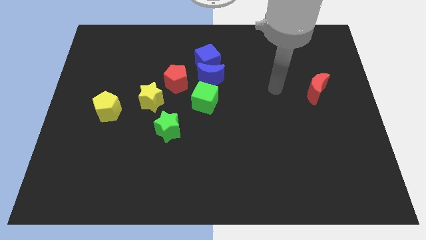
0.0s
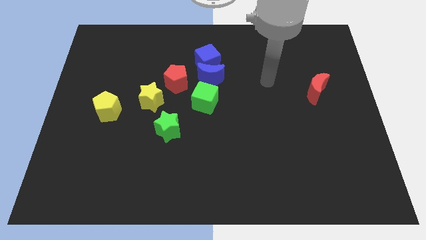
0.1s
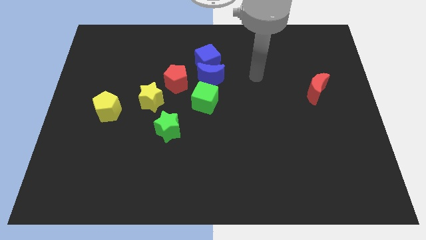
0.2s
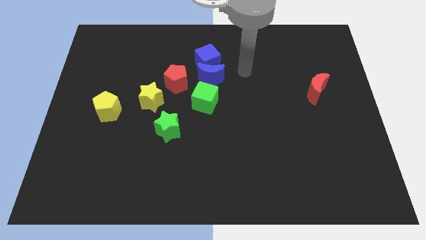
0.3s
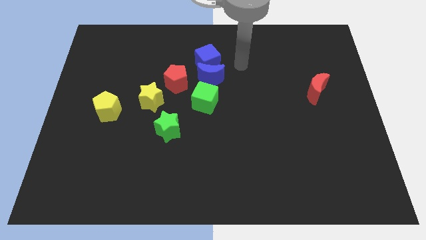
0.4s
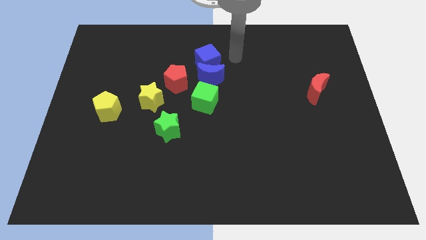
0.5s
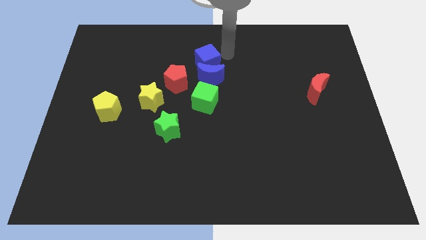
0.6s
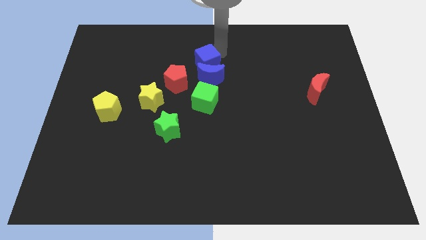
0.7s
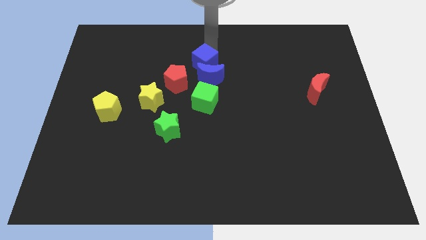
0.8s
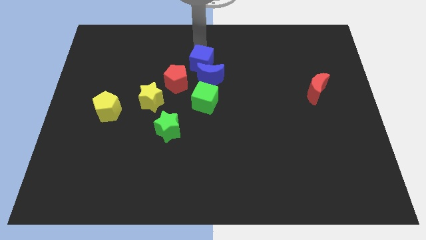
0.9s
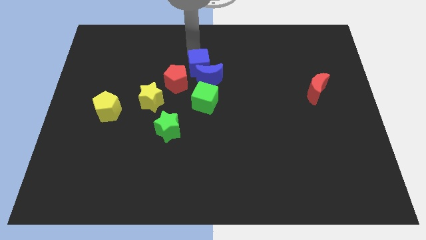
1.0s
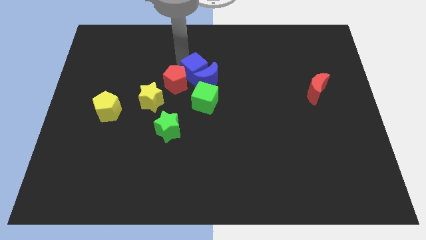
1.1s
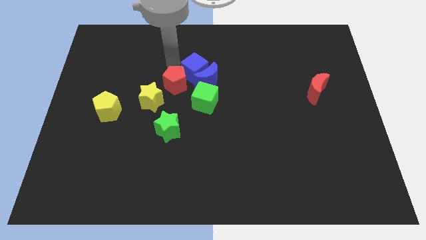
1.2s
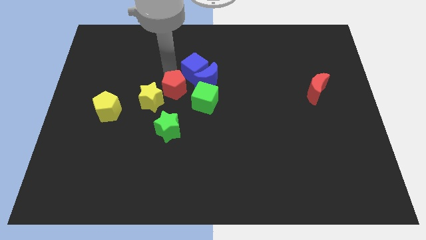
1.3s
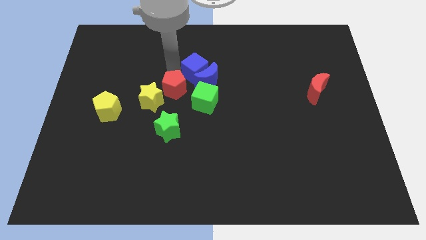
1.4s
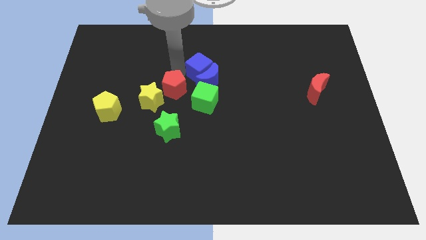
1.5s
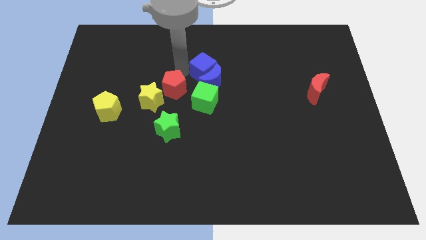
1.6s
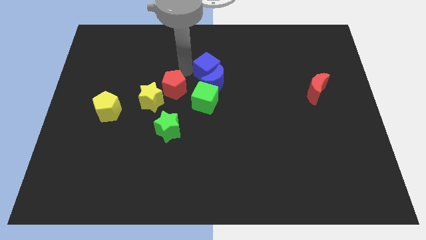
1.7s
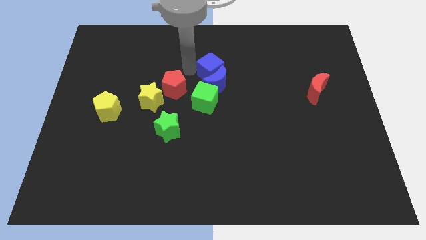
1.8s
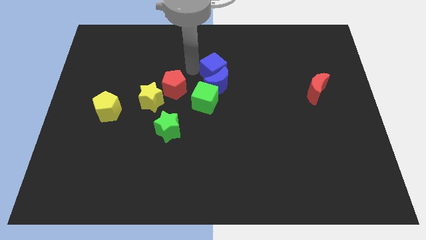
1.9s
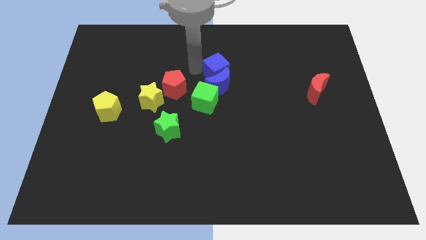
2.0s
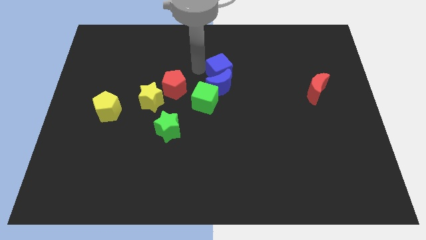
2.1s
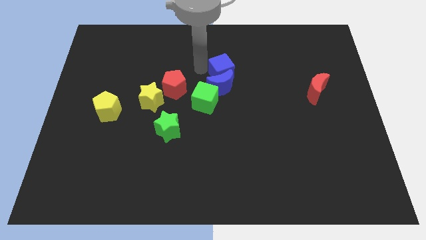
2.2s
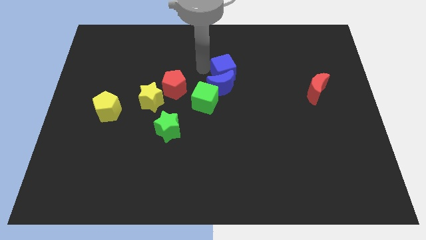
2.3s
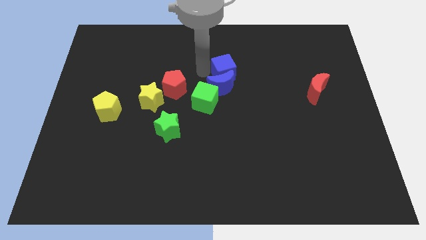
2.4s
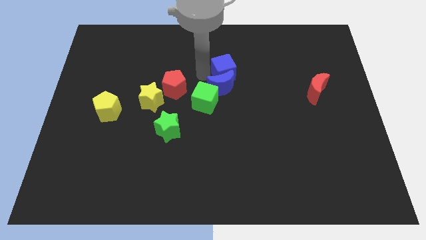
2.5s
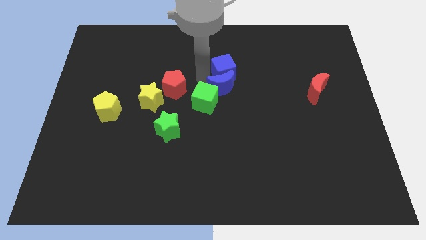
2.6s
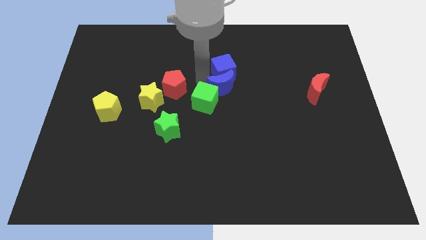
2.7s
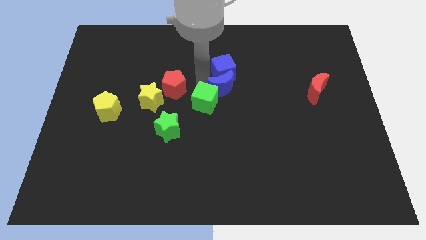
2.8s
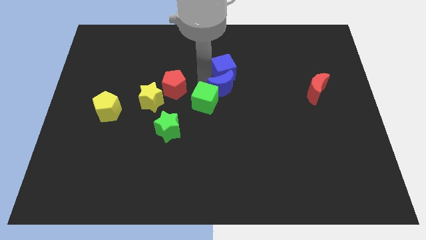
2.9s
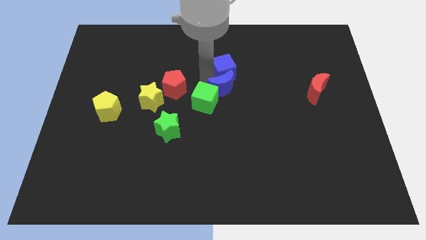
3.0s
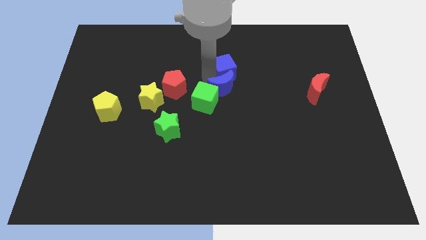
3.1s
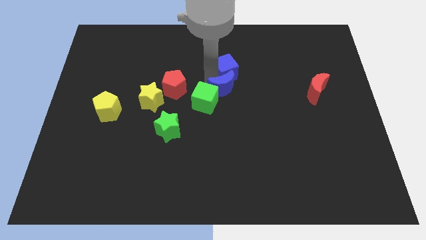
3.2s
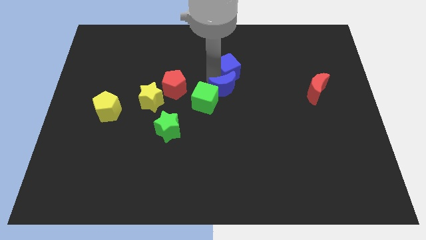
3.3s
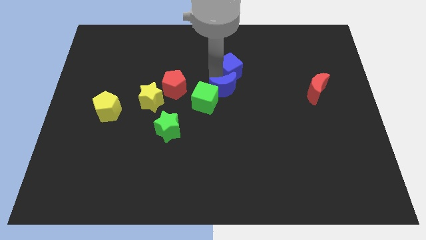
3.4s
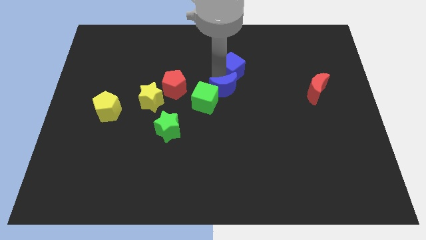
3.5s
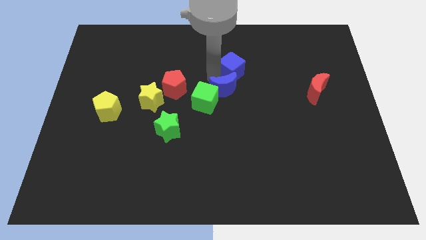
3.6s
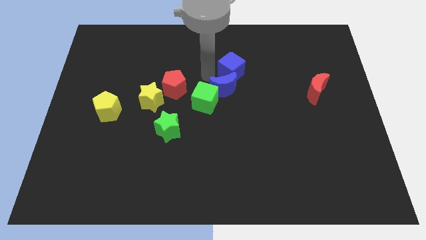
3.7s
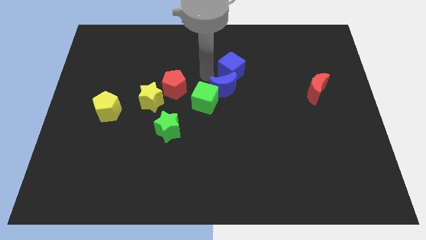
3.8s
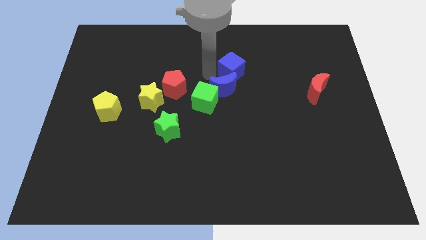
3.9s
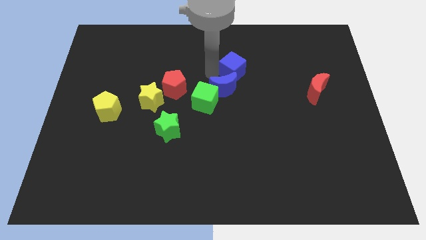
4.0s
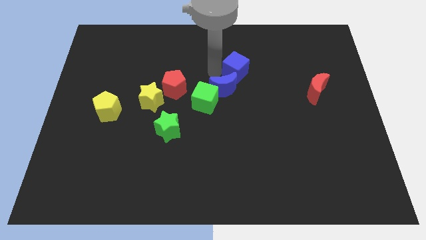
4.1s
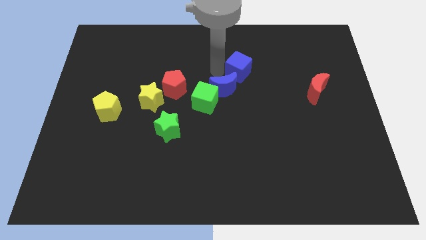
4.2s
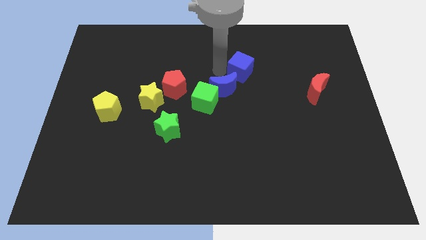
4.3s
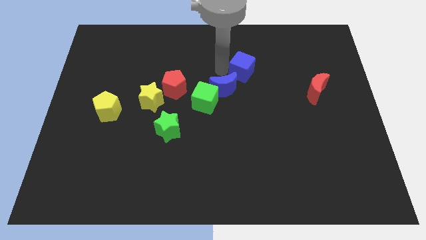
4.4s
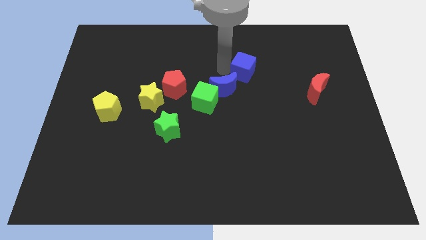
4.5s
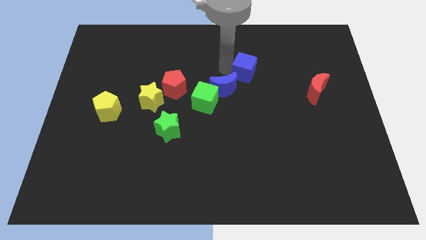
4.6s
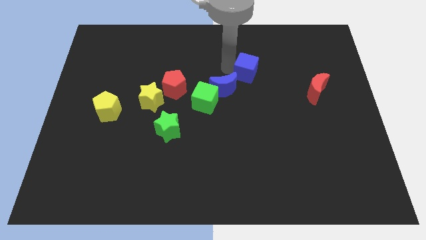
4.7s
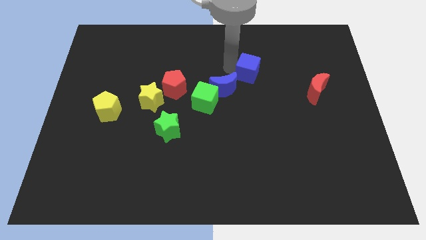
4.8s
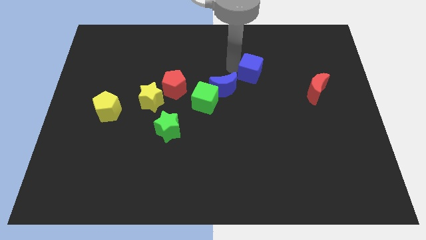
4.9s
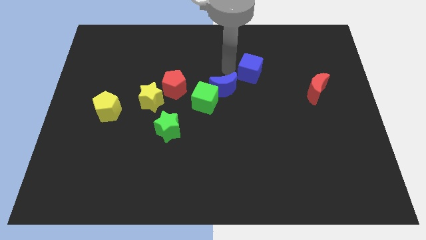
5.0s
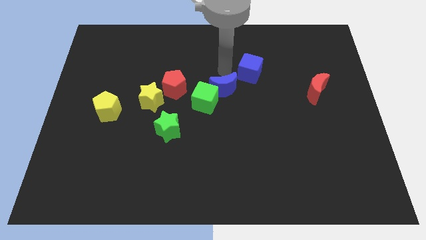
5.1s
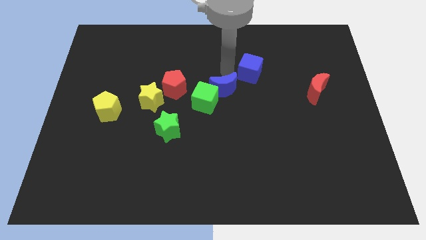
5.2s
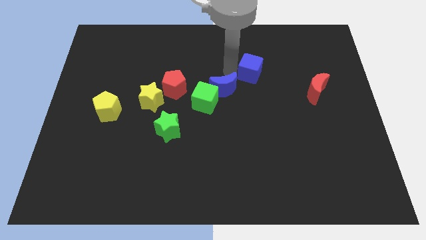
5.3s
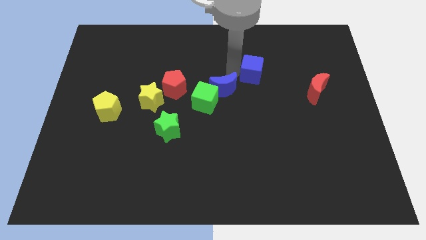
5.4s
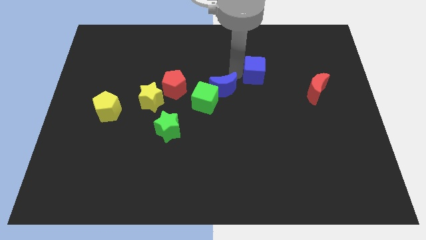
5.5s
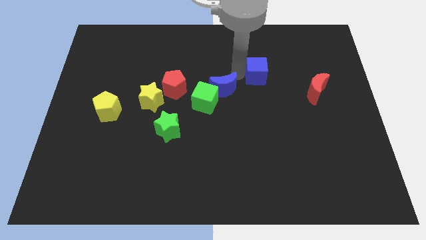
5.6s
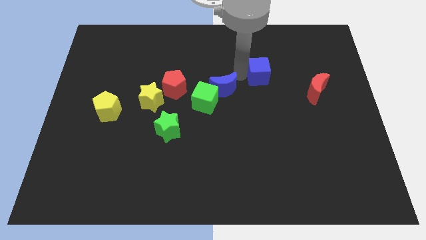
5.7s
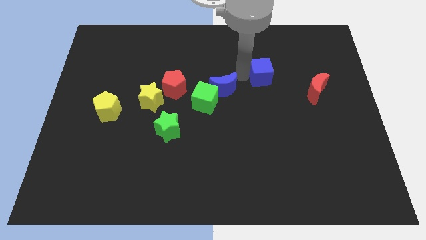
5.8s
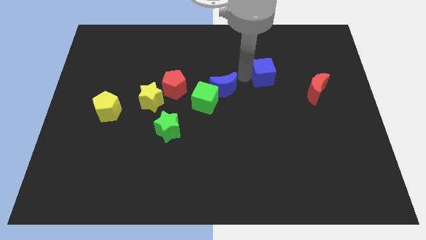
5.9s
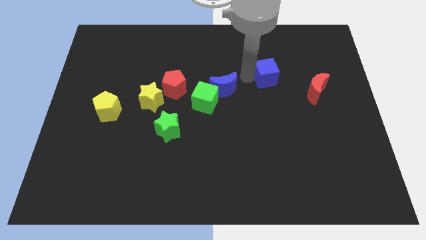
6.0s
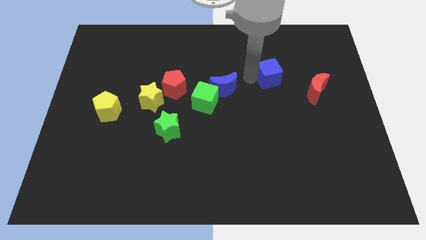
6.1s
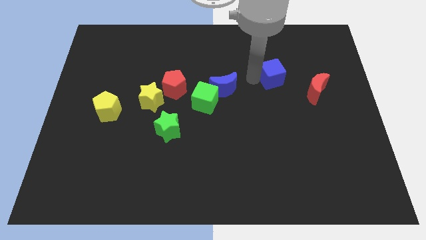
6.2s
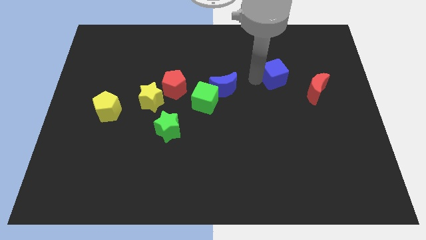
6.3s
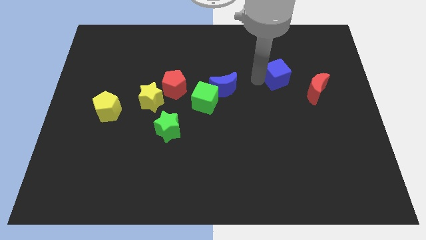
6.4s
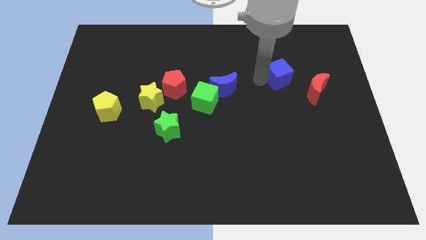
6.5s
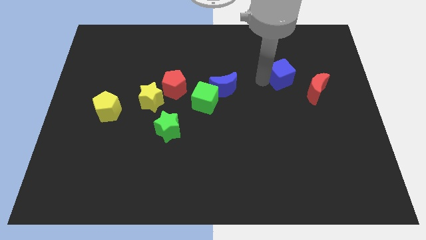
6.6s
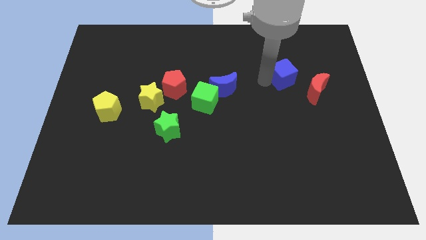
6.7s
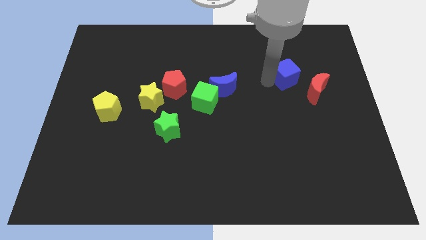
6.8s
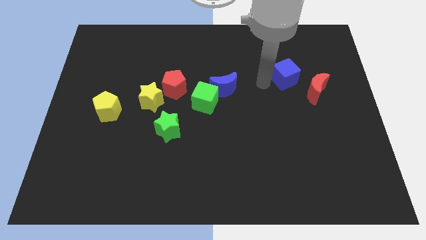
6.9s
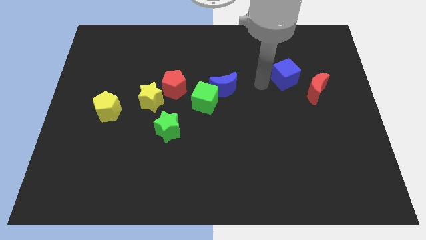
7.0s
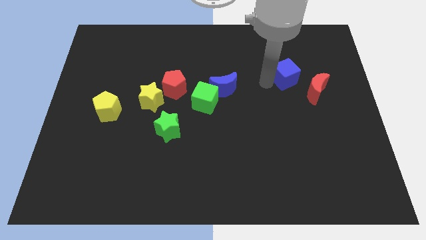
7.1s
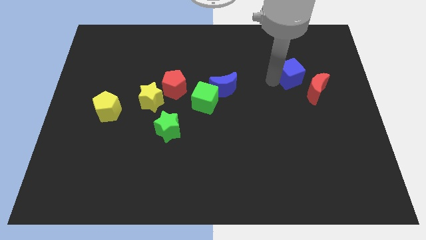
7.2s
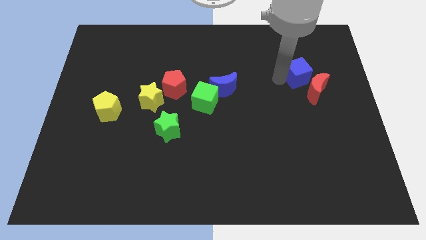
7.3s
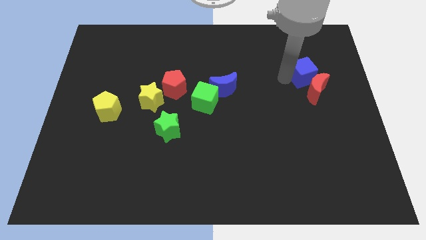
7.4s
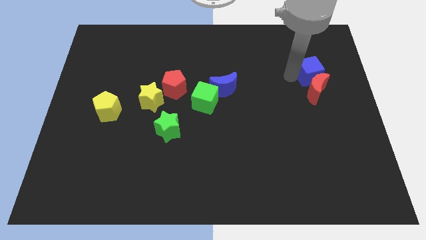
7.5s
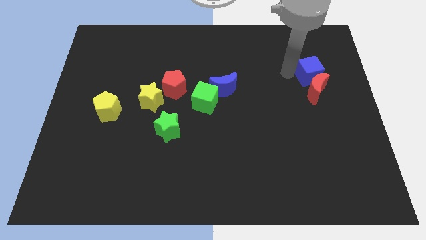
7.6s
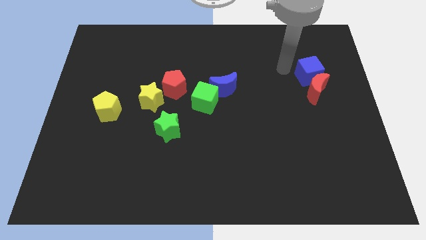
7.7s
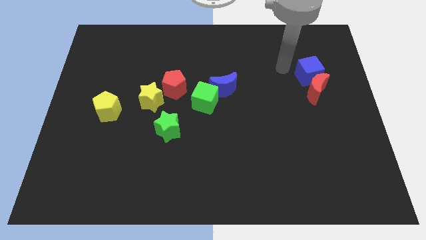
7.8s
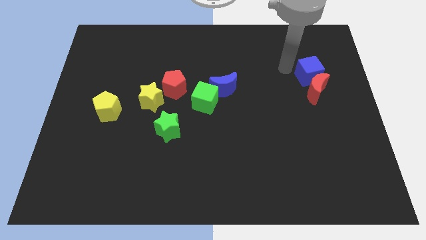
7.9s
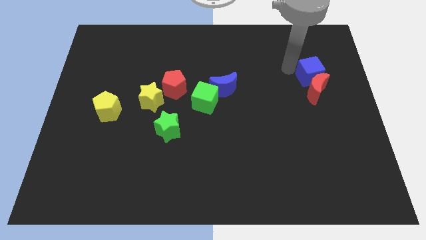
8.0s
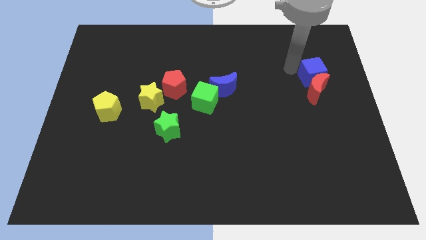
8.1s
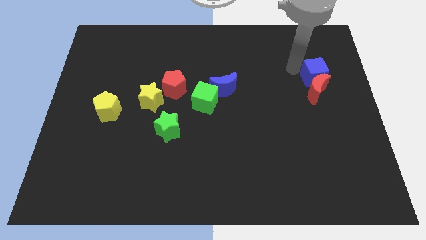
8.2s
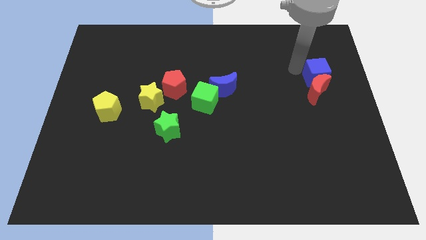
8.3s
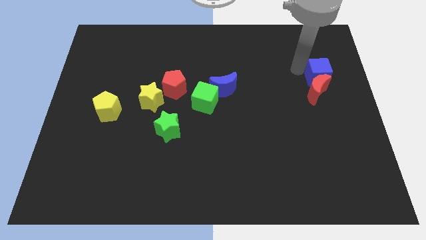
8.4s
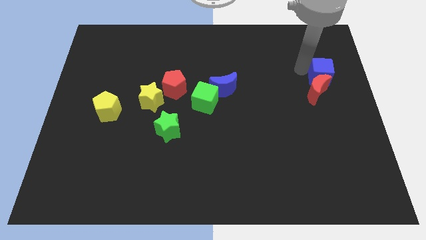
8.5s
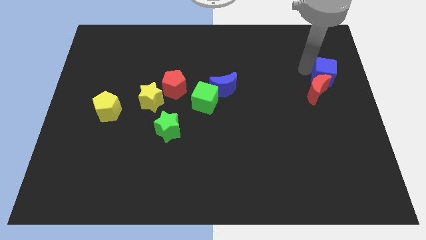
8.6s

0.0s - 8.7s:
move the blue cube to the right side
